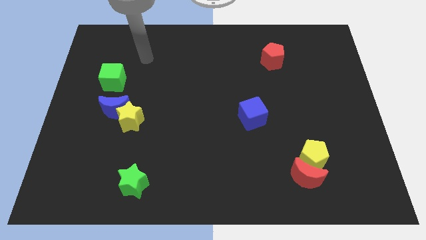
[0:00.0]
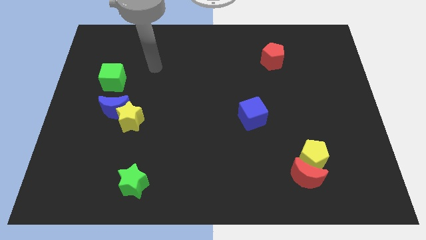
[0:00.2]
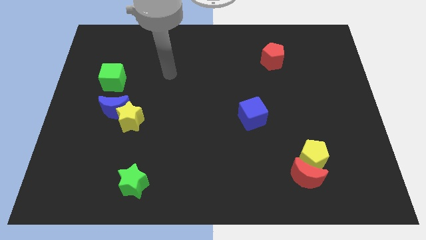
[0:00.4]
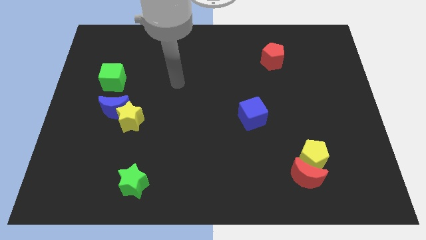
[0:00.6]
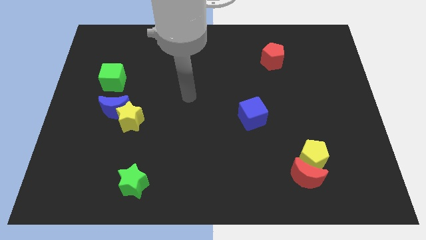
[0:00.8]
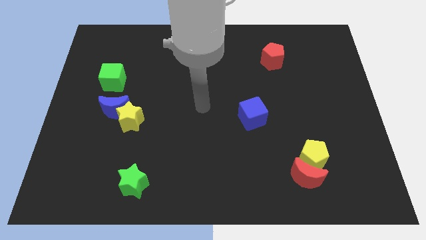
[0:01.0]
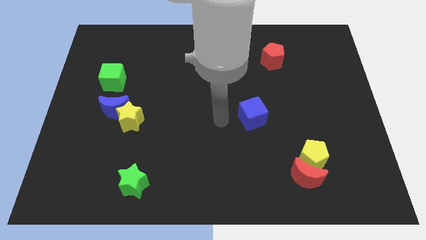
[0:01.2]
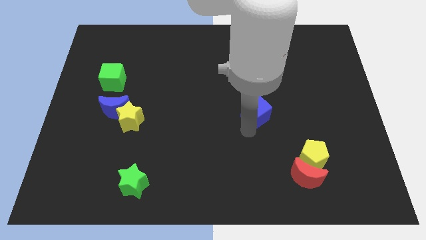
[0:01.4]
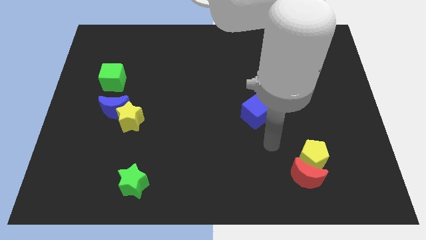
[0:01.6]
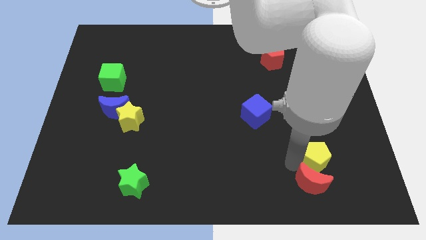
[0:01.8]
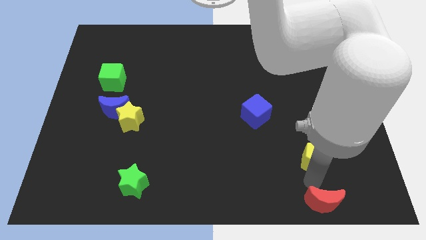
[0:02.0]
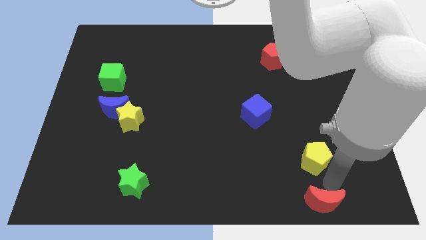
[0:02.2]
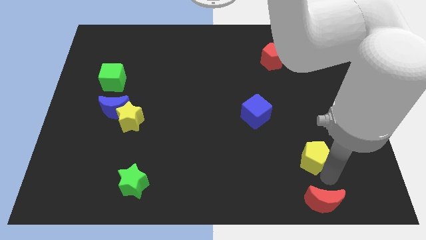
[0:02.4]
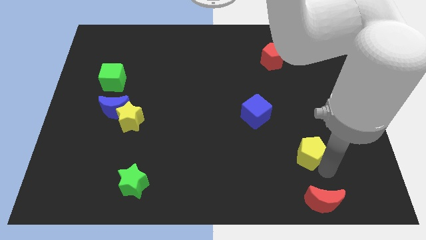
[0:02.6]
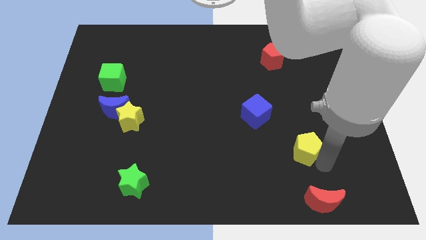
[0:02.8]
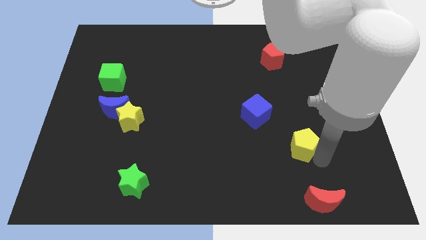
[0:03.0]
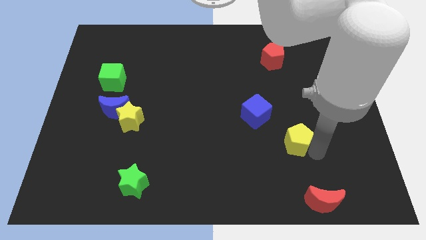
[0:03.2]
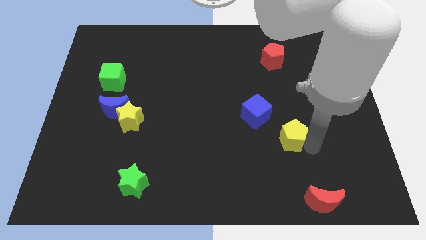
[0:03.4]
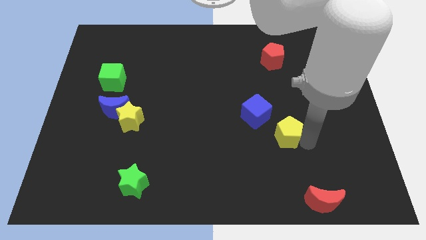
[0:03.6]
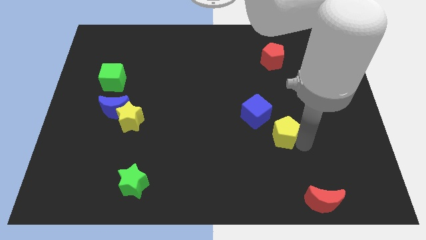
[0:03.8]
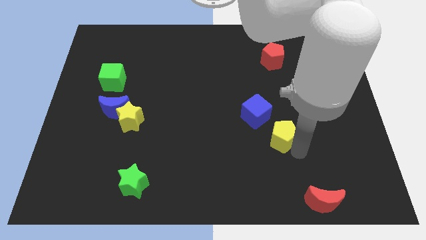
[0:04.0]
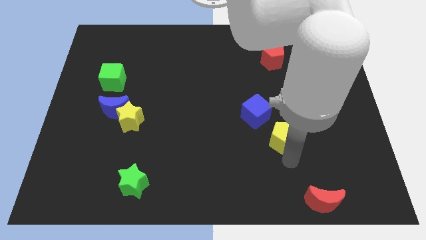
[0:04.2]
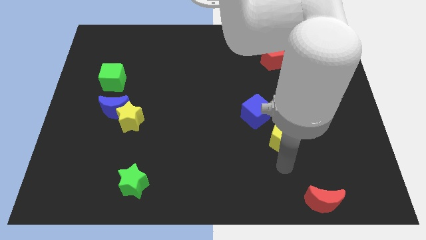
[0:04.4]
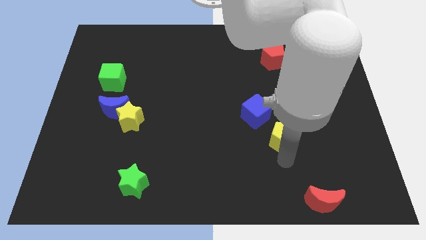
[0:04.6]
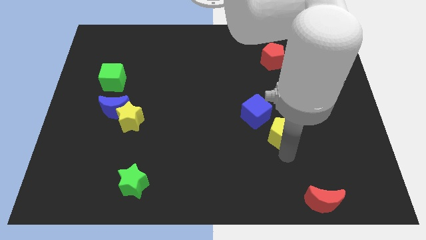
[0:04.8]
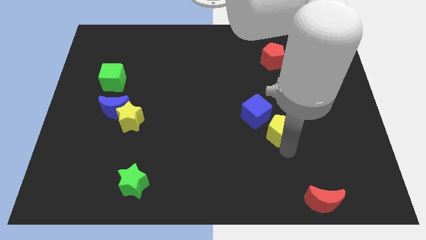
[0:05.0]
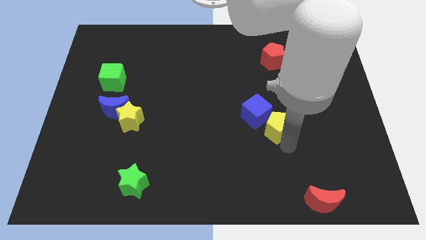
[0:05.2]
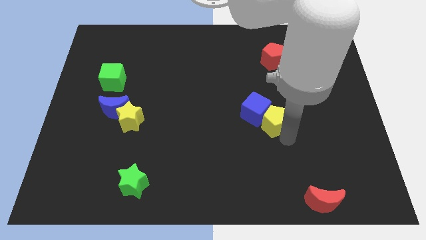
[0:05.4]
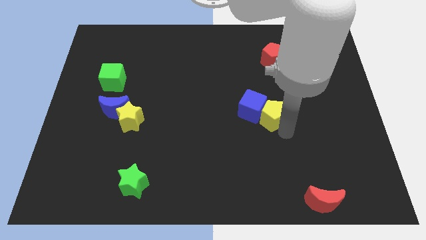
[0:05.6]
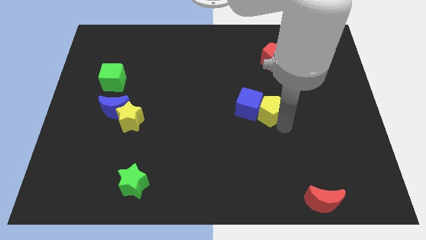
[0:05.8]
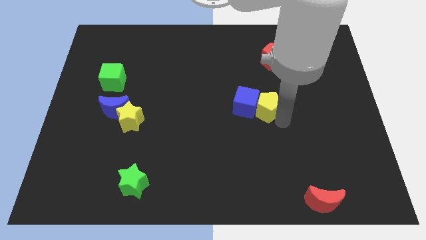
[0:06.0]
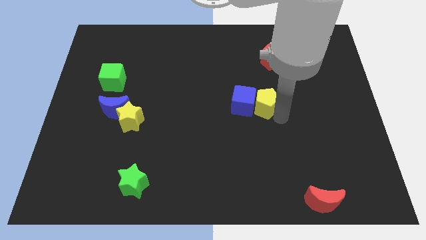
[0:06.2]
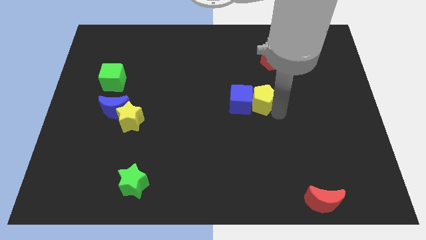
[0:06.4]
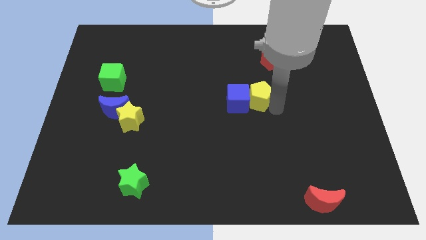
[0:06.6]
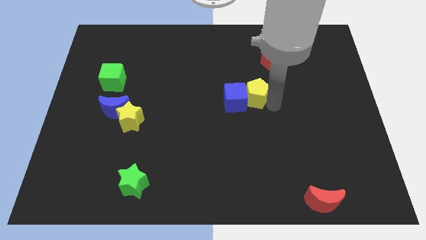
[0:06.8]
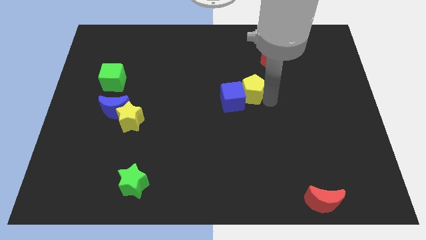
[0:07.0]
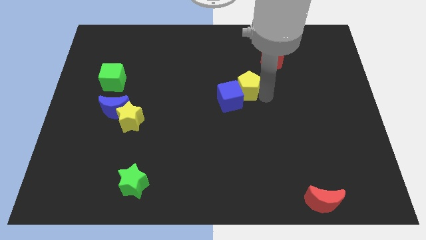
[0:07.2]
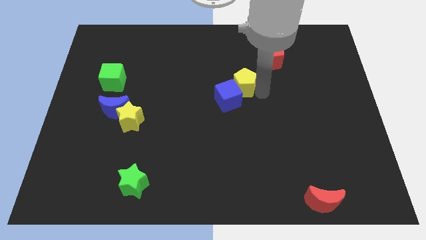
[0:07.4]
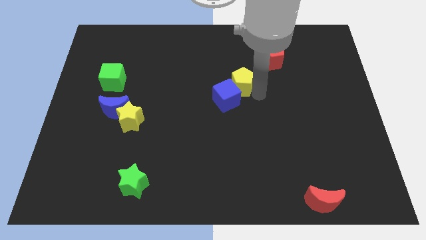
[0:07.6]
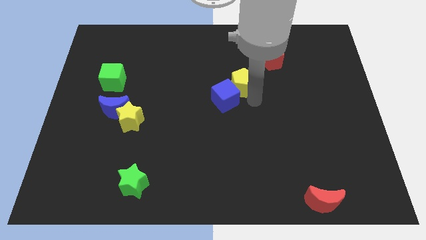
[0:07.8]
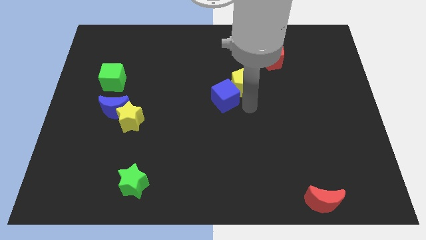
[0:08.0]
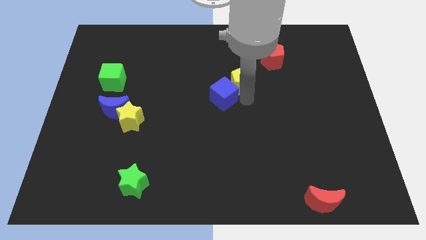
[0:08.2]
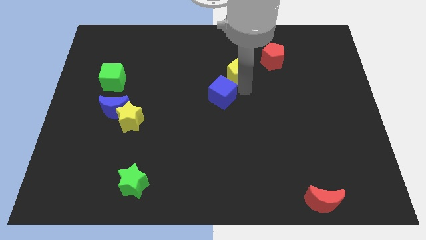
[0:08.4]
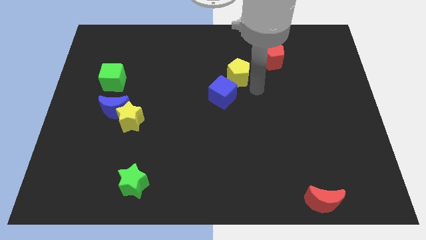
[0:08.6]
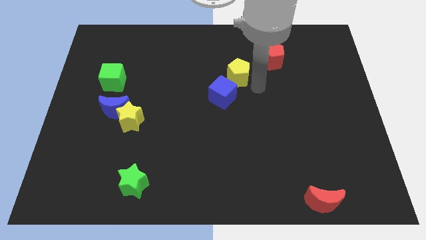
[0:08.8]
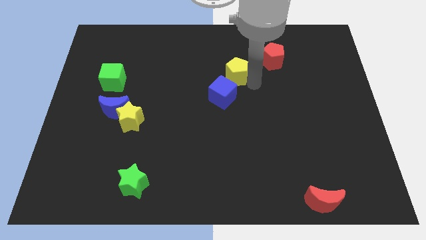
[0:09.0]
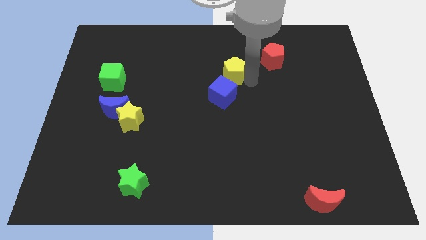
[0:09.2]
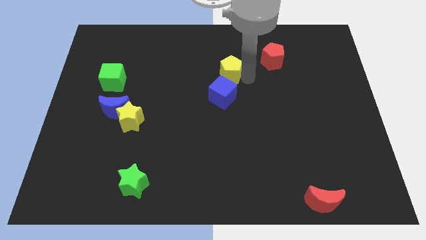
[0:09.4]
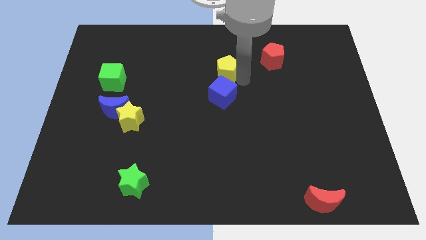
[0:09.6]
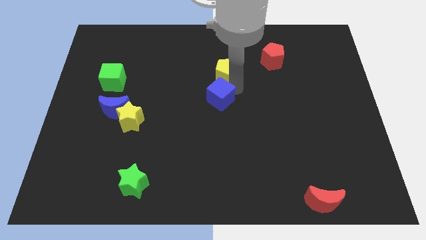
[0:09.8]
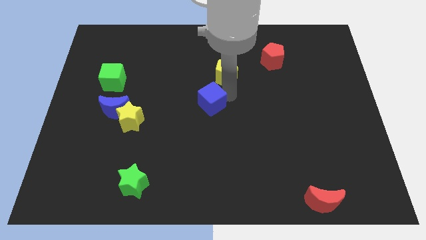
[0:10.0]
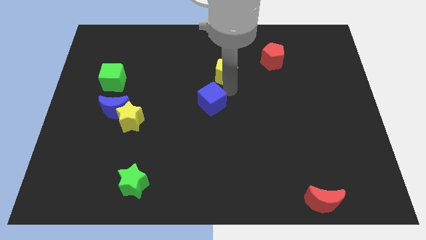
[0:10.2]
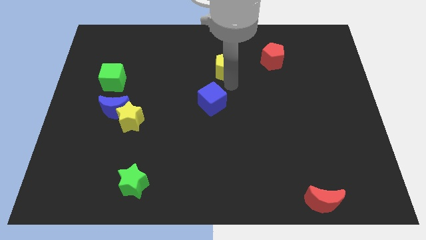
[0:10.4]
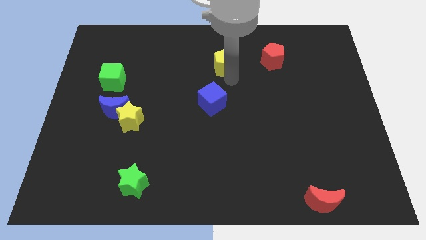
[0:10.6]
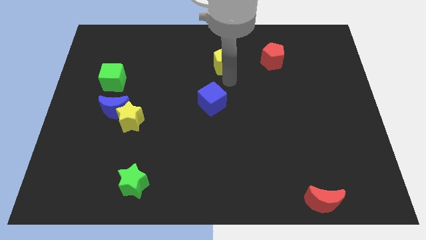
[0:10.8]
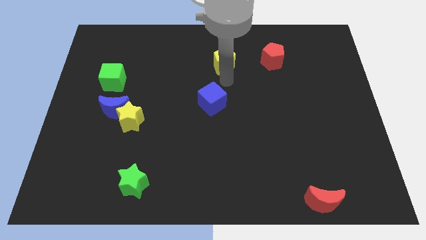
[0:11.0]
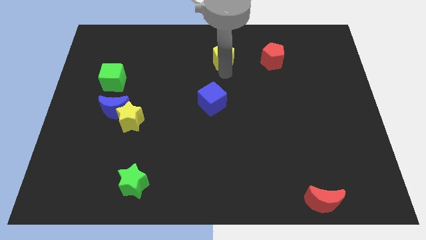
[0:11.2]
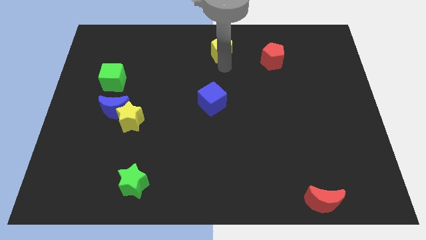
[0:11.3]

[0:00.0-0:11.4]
move the yellow pentagon to the towards your base
